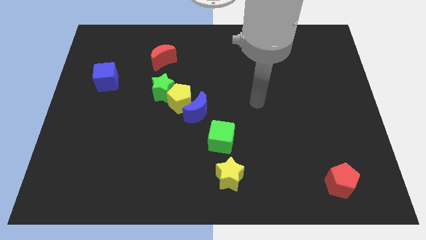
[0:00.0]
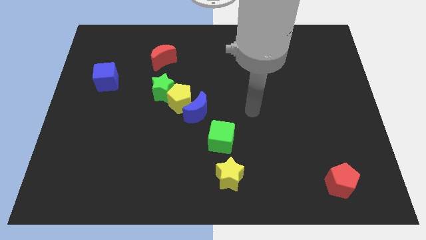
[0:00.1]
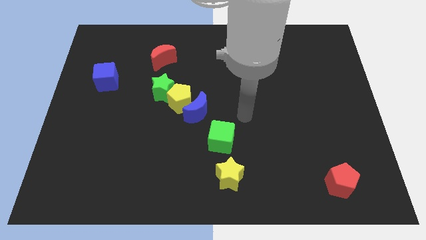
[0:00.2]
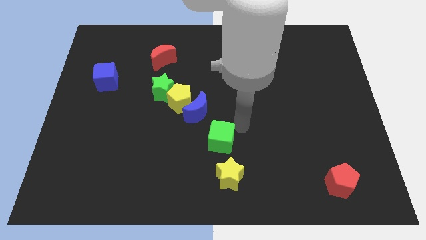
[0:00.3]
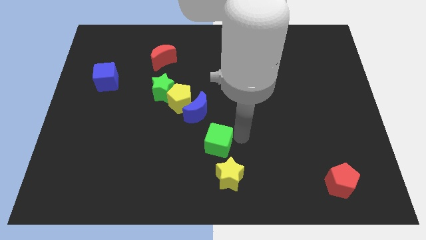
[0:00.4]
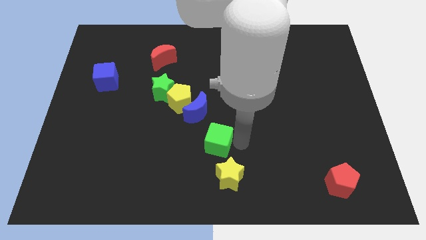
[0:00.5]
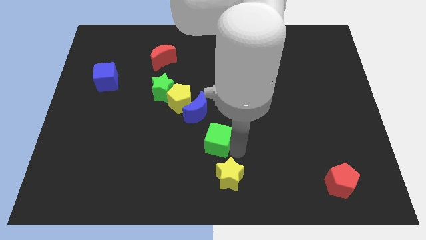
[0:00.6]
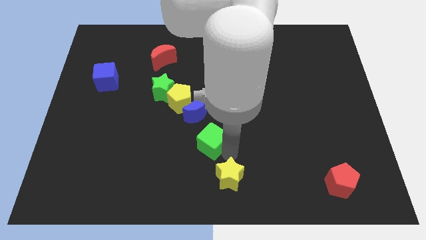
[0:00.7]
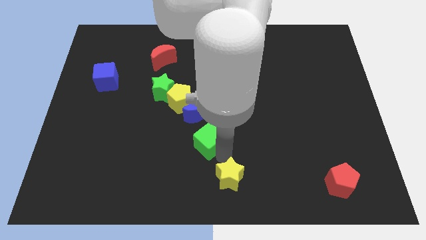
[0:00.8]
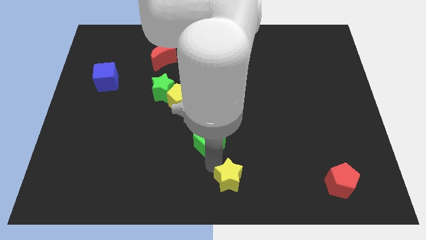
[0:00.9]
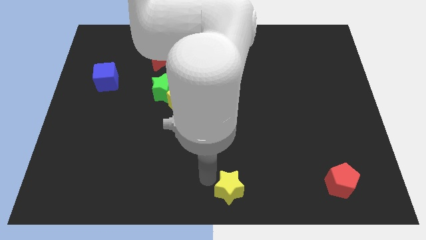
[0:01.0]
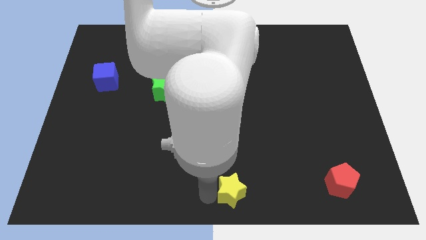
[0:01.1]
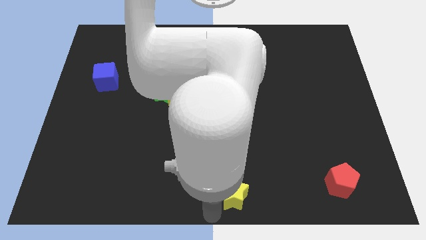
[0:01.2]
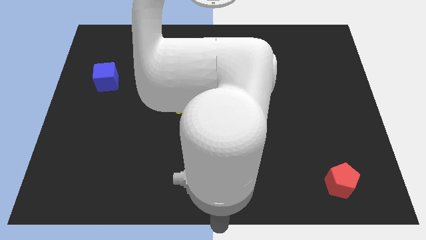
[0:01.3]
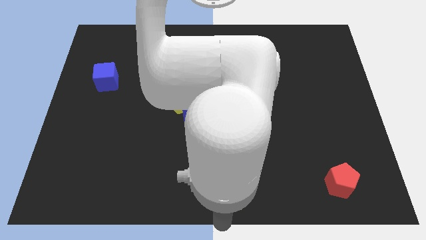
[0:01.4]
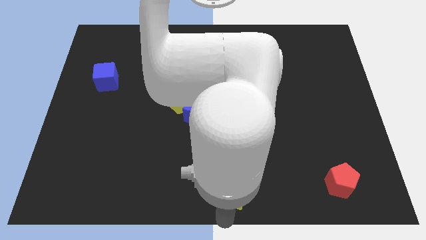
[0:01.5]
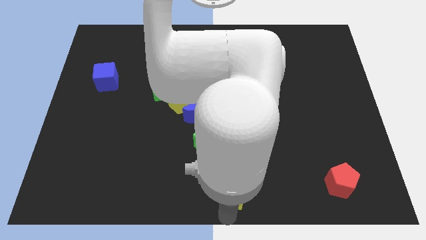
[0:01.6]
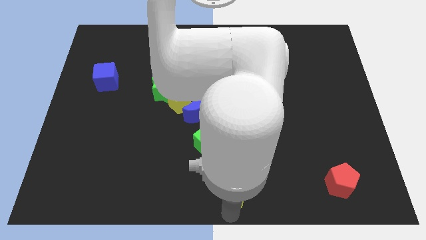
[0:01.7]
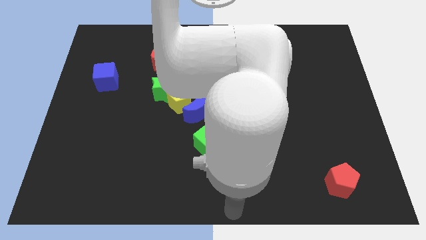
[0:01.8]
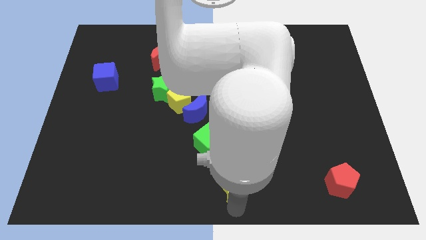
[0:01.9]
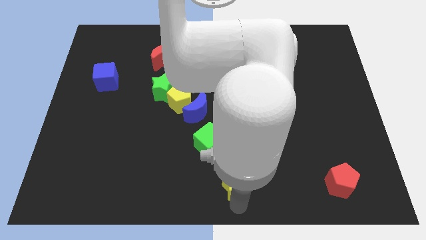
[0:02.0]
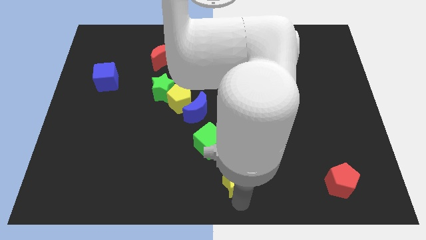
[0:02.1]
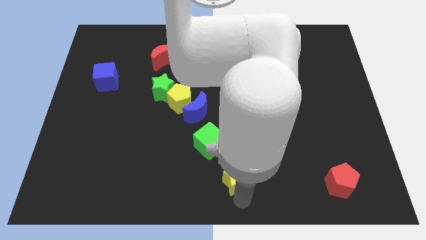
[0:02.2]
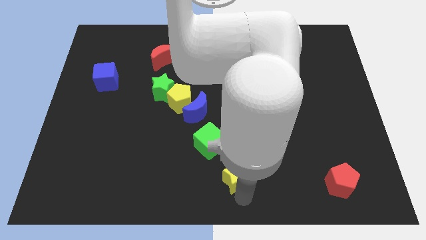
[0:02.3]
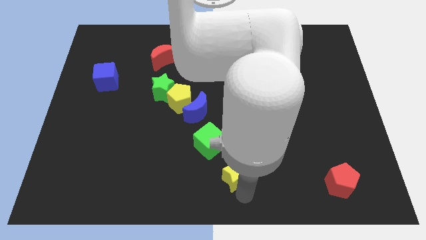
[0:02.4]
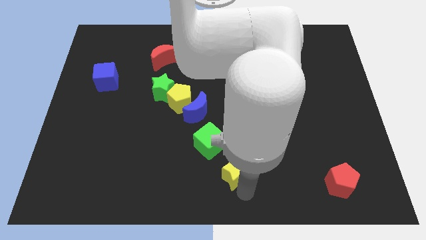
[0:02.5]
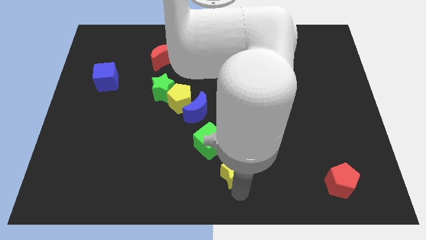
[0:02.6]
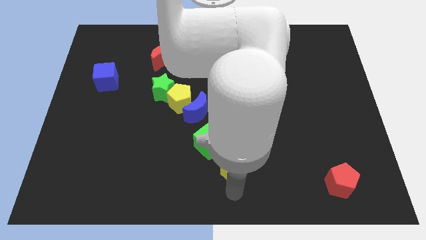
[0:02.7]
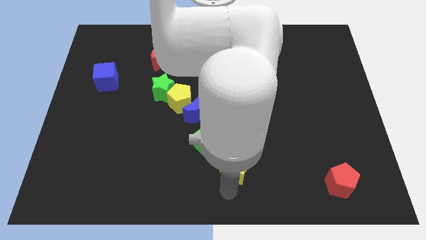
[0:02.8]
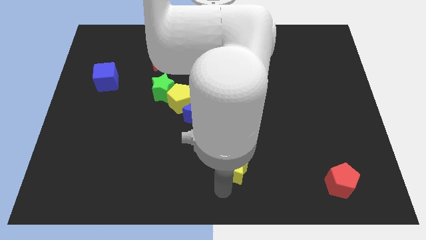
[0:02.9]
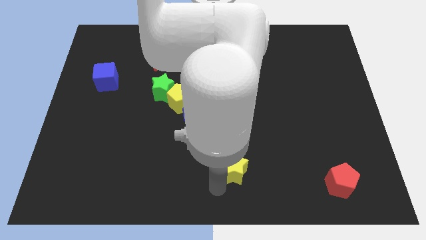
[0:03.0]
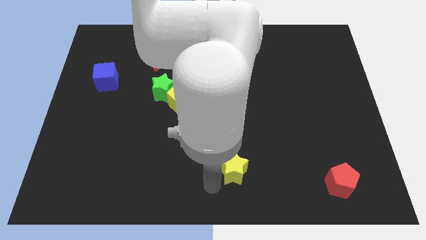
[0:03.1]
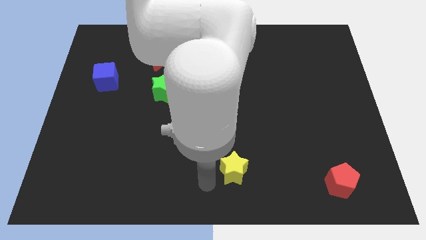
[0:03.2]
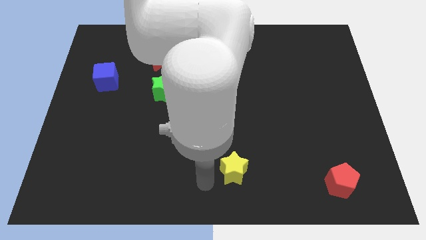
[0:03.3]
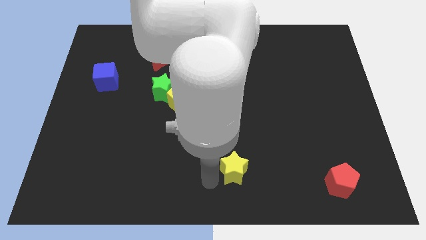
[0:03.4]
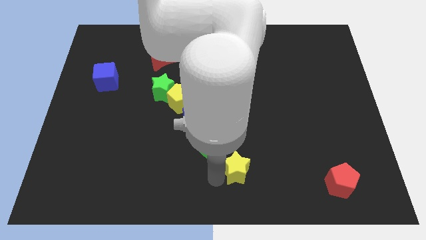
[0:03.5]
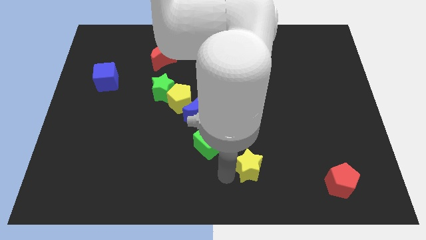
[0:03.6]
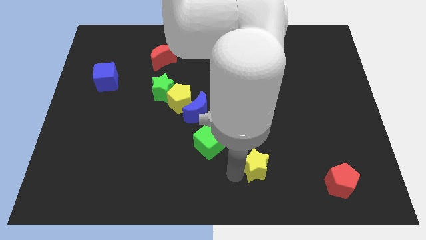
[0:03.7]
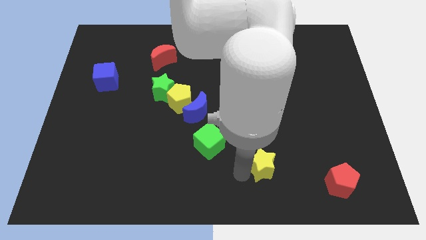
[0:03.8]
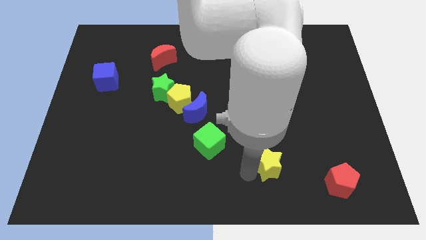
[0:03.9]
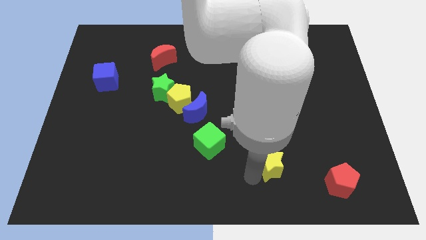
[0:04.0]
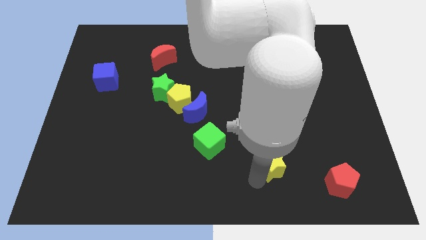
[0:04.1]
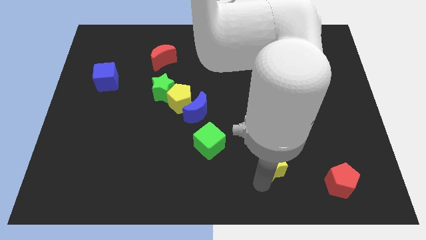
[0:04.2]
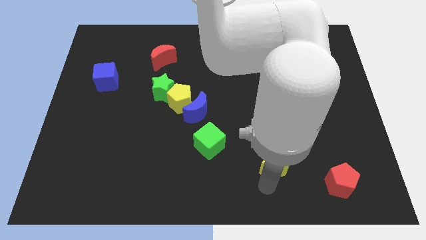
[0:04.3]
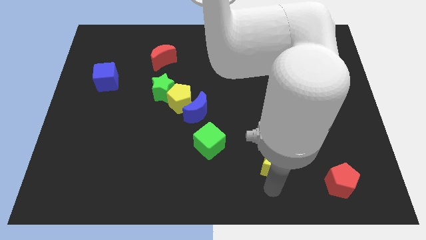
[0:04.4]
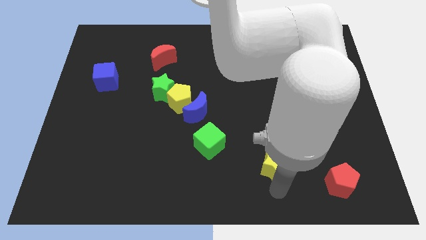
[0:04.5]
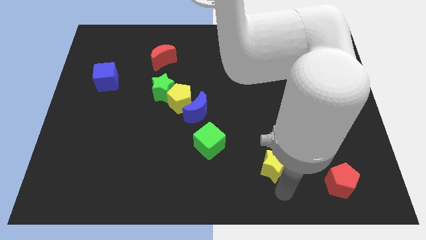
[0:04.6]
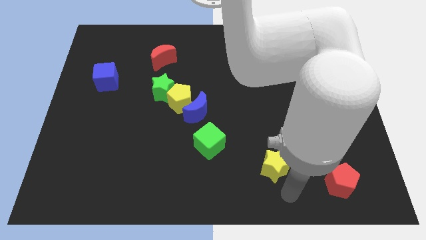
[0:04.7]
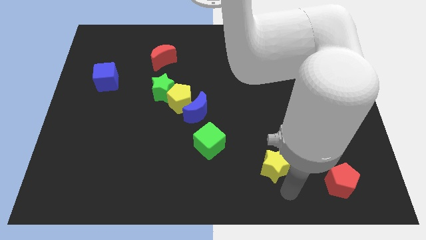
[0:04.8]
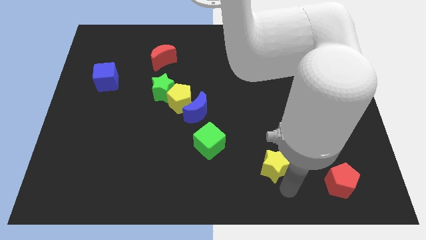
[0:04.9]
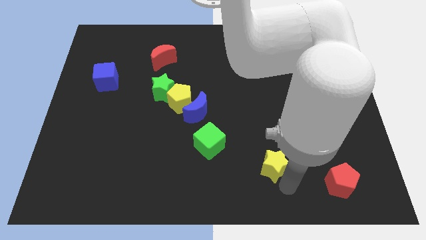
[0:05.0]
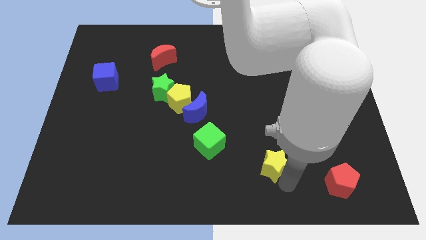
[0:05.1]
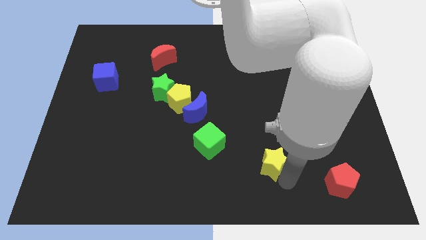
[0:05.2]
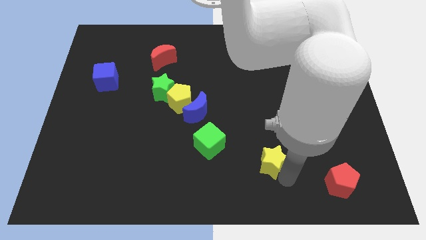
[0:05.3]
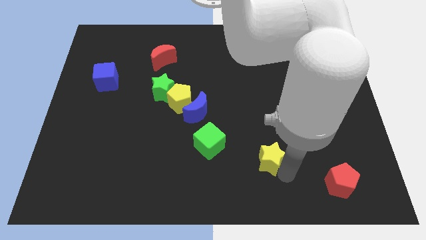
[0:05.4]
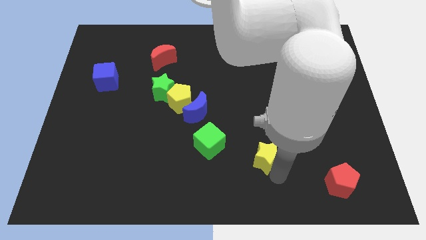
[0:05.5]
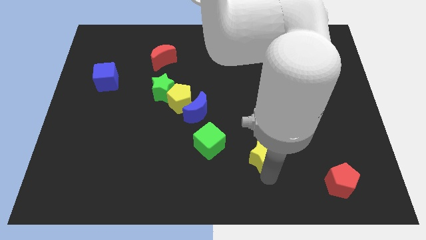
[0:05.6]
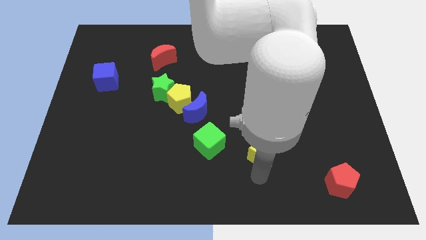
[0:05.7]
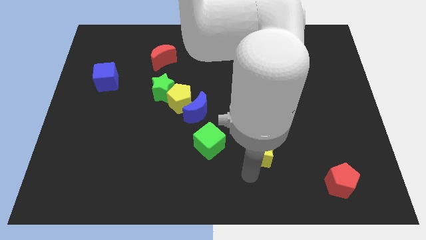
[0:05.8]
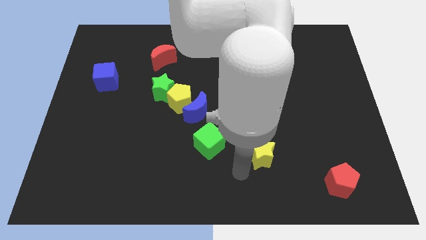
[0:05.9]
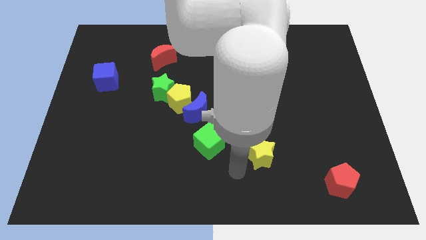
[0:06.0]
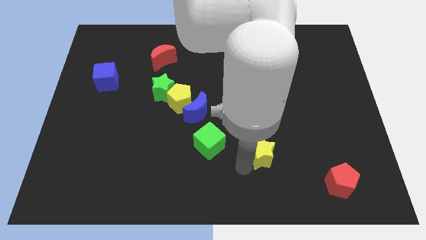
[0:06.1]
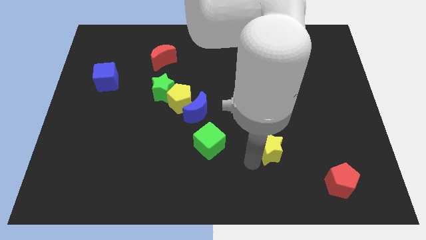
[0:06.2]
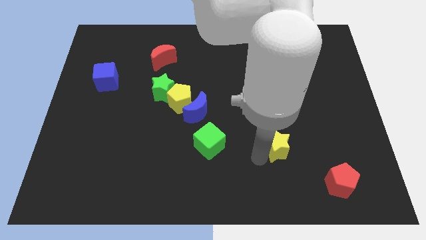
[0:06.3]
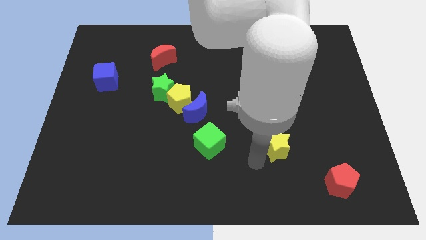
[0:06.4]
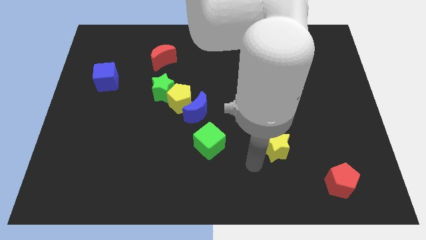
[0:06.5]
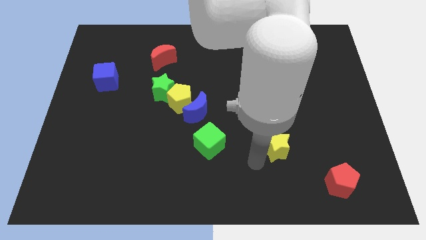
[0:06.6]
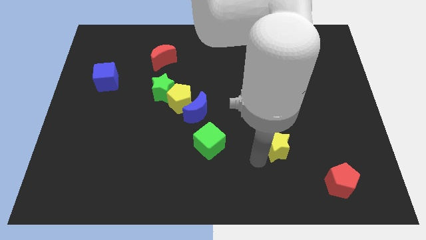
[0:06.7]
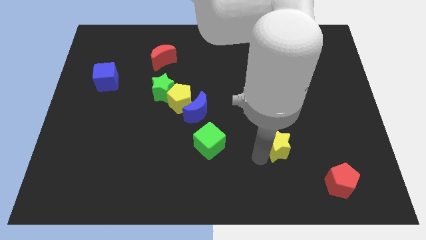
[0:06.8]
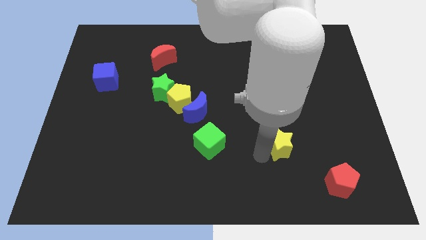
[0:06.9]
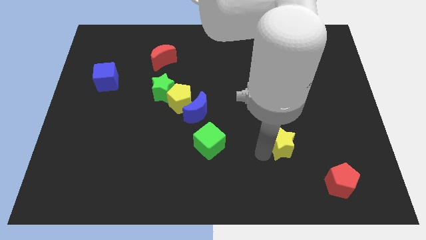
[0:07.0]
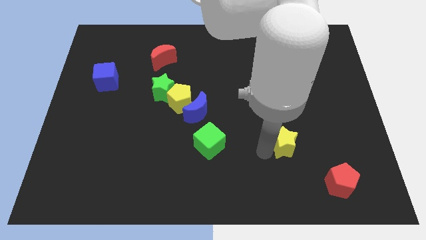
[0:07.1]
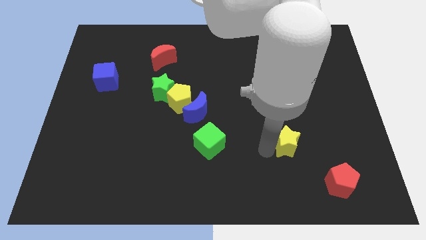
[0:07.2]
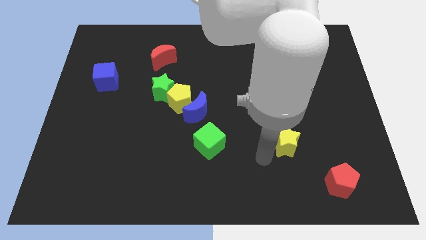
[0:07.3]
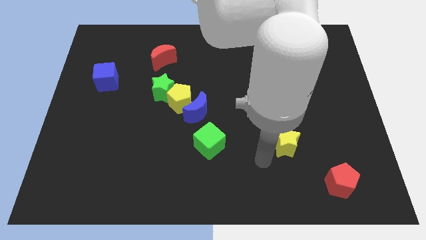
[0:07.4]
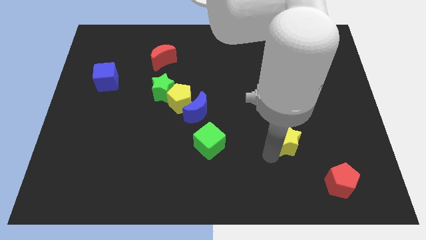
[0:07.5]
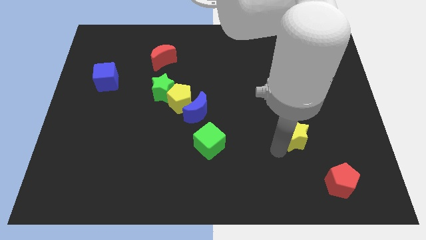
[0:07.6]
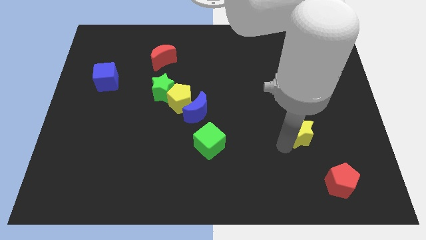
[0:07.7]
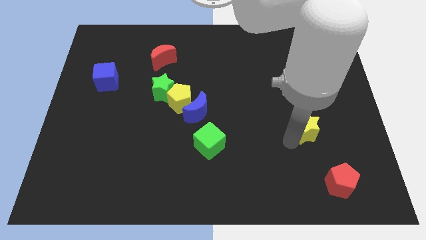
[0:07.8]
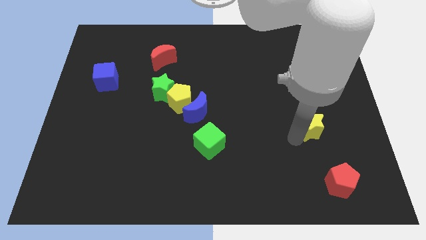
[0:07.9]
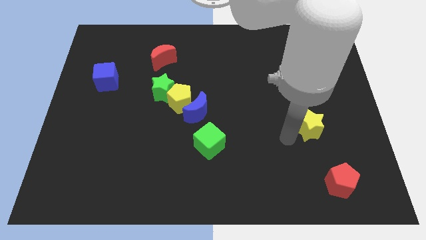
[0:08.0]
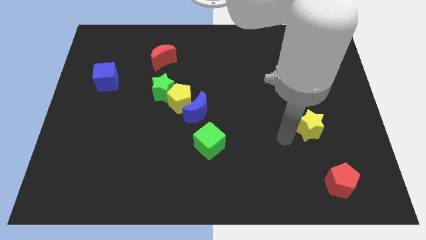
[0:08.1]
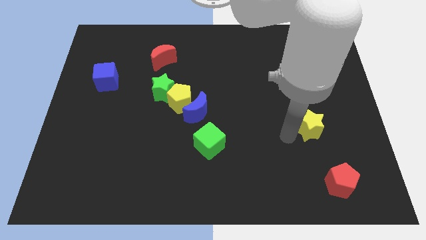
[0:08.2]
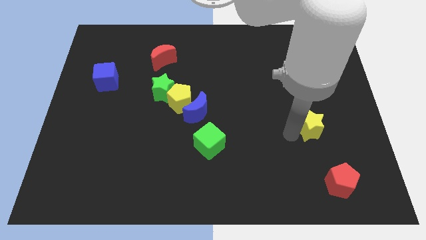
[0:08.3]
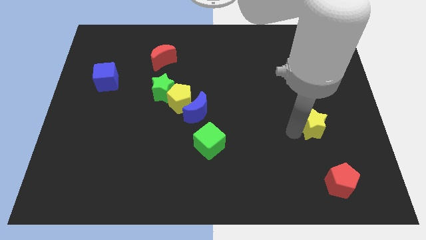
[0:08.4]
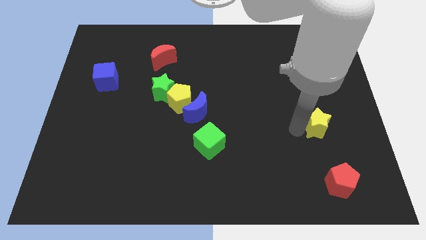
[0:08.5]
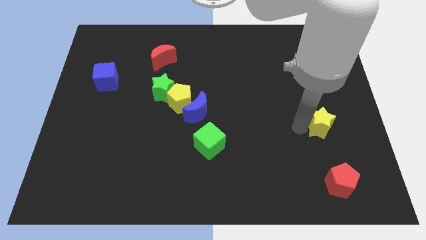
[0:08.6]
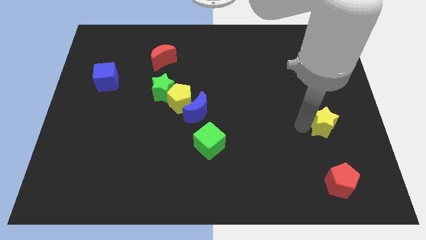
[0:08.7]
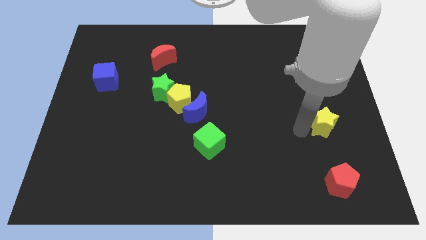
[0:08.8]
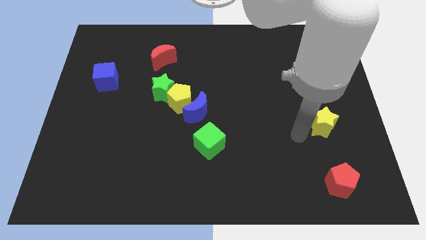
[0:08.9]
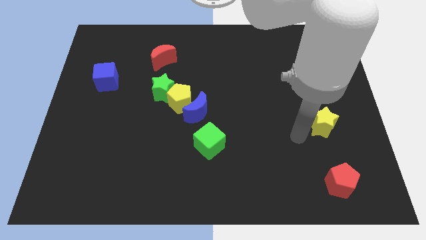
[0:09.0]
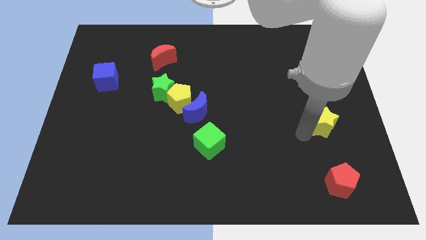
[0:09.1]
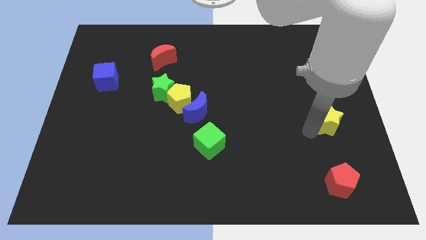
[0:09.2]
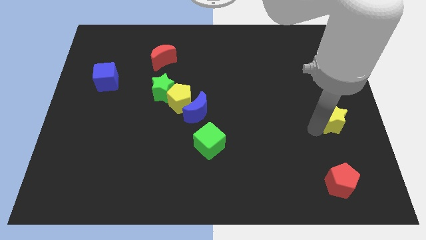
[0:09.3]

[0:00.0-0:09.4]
slide the yellow star to the right side
